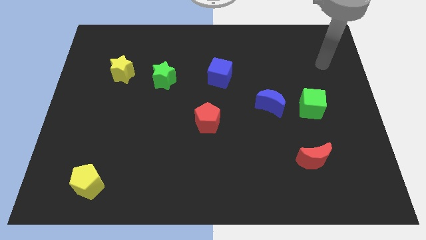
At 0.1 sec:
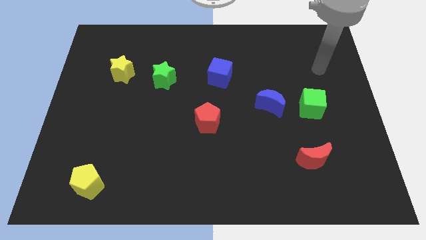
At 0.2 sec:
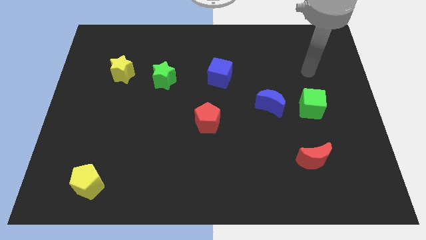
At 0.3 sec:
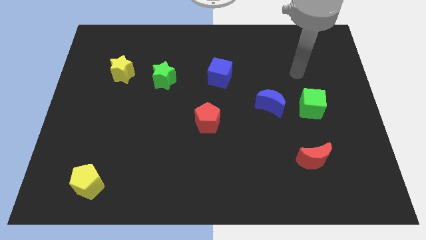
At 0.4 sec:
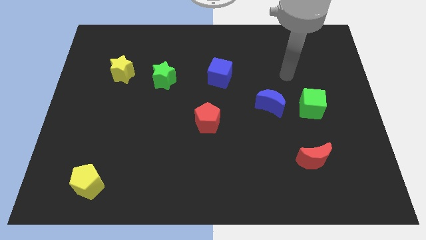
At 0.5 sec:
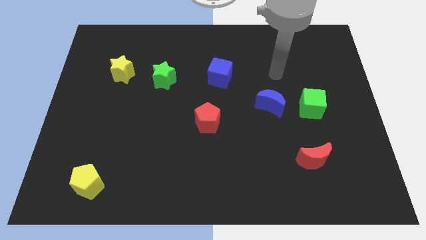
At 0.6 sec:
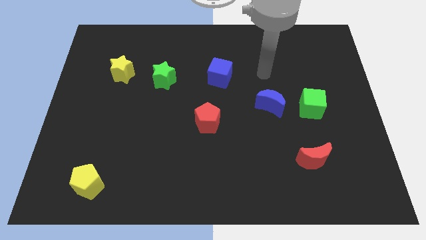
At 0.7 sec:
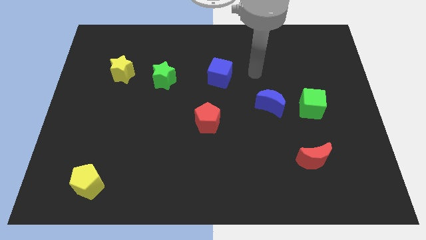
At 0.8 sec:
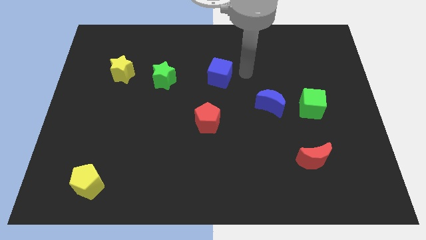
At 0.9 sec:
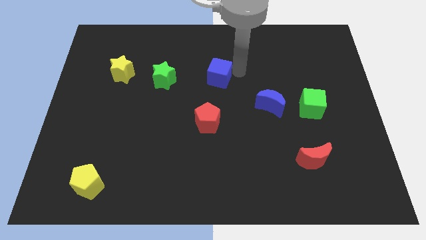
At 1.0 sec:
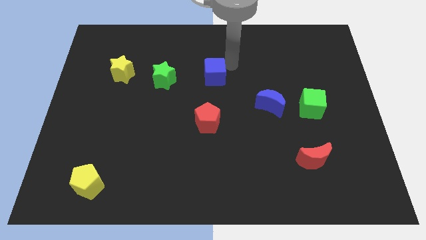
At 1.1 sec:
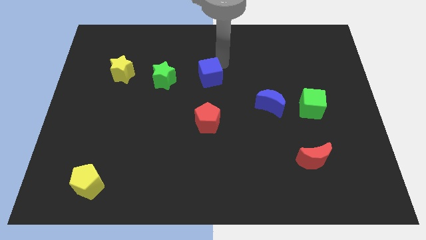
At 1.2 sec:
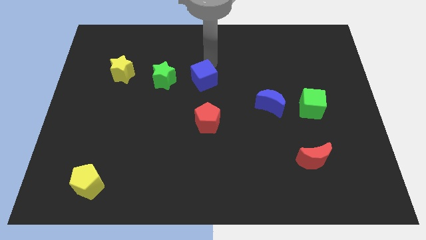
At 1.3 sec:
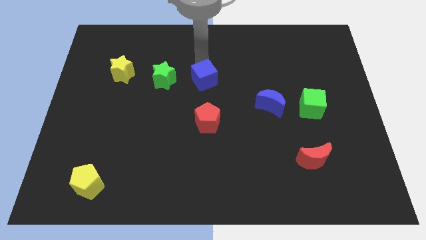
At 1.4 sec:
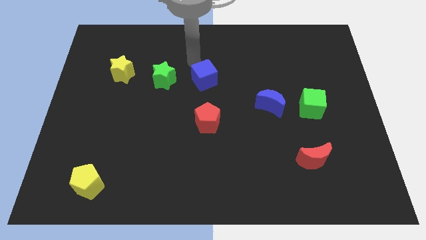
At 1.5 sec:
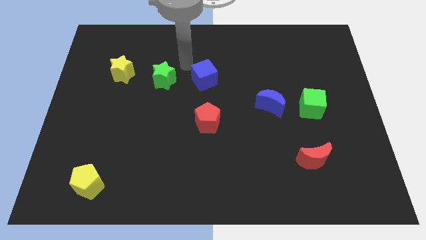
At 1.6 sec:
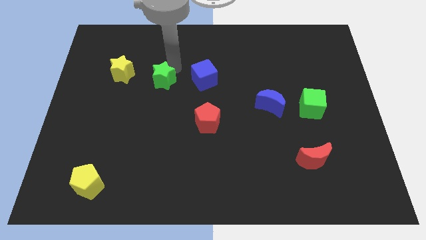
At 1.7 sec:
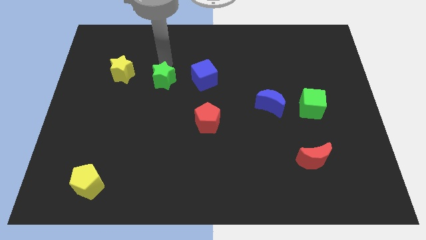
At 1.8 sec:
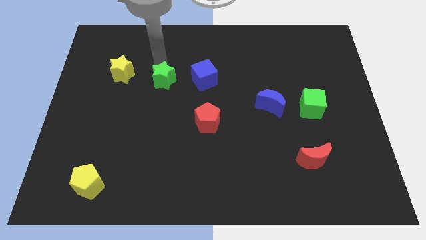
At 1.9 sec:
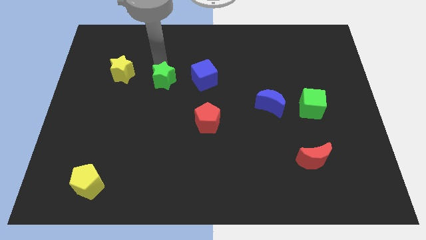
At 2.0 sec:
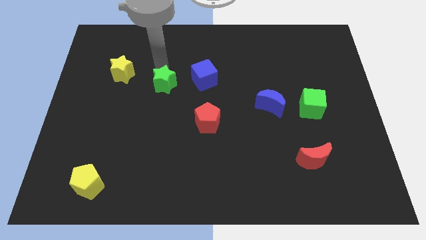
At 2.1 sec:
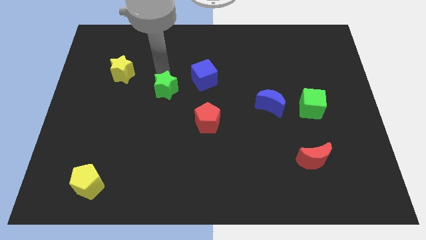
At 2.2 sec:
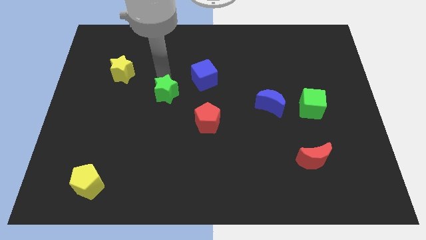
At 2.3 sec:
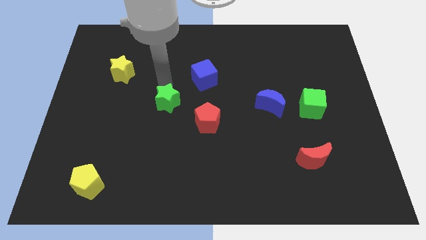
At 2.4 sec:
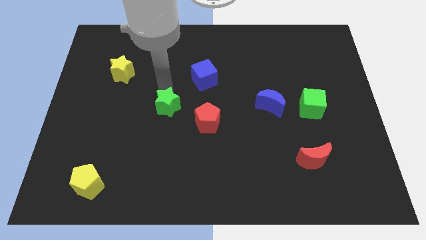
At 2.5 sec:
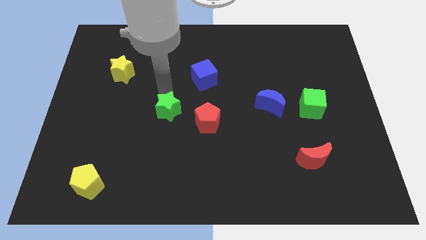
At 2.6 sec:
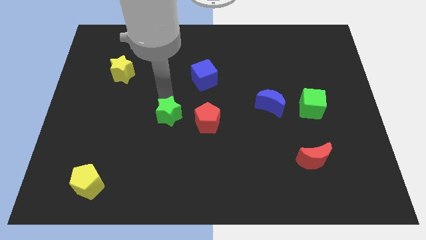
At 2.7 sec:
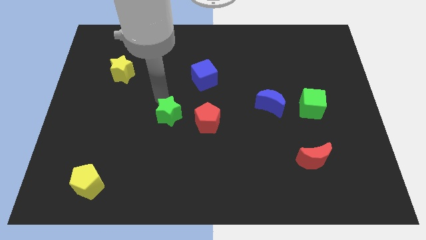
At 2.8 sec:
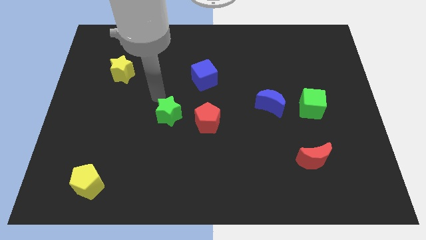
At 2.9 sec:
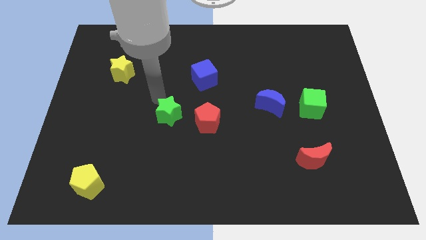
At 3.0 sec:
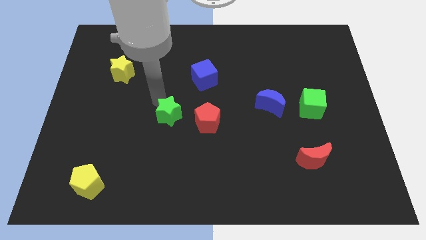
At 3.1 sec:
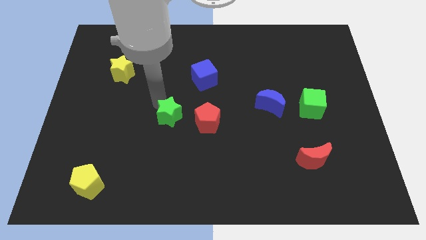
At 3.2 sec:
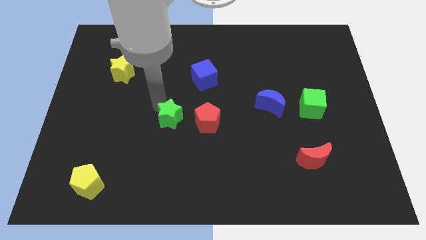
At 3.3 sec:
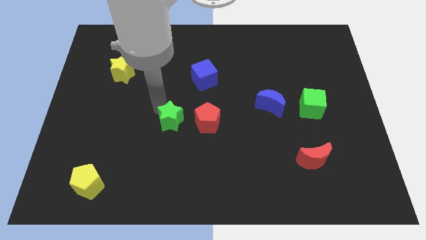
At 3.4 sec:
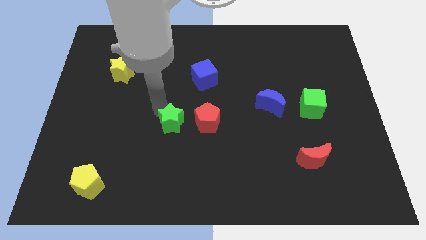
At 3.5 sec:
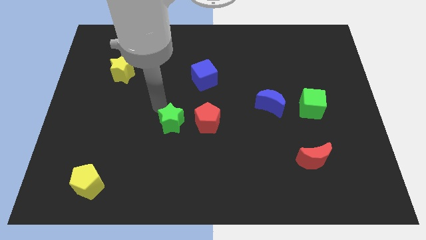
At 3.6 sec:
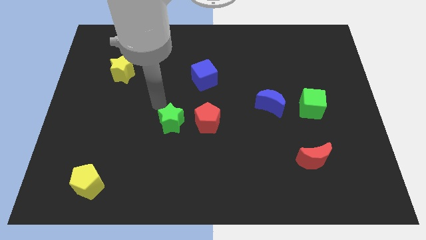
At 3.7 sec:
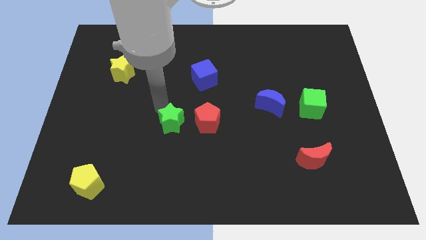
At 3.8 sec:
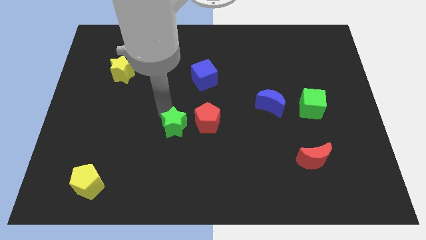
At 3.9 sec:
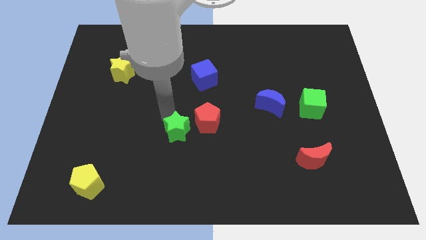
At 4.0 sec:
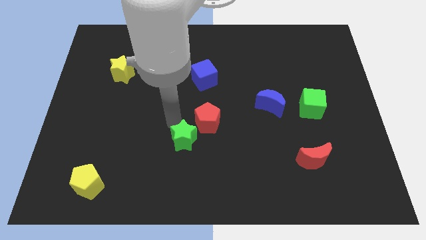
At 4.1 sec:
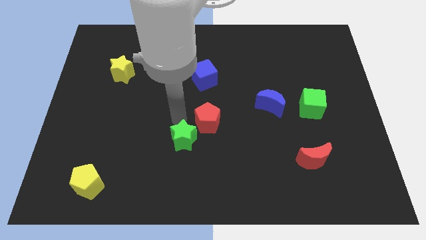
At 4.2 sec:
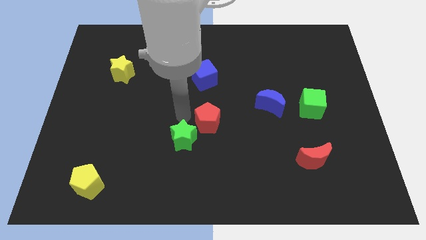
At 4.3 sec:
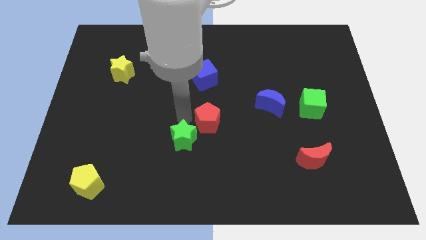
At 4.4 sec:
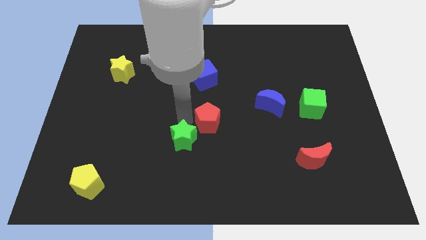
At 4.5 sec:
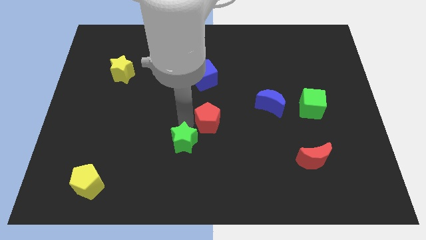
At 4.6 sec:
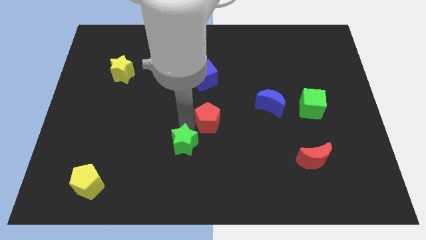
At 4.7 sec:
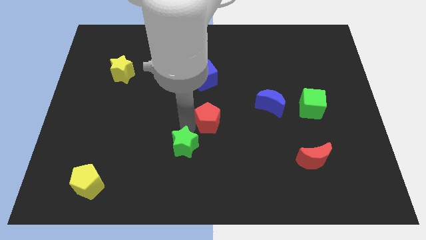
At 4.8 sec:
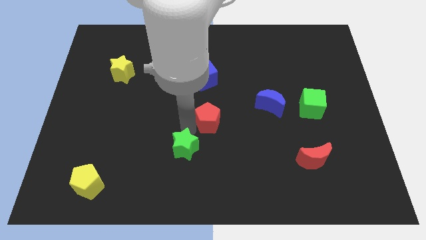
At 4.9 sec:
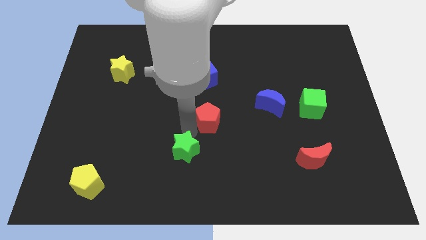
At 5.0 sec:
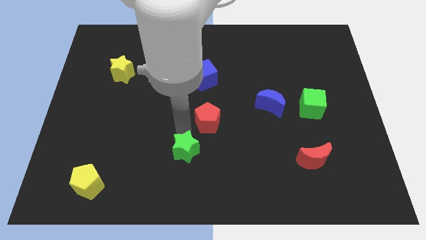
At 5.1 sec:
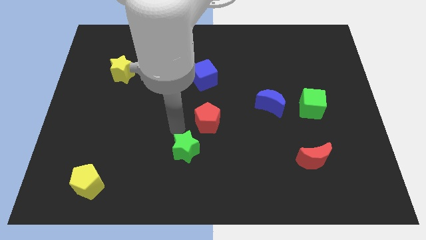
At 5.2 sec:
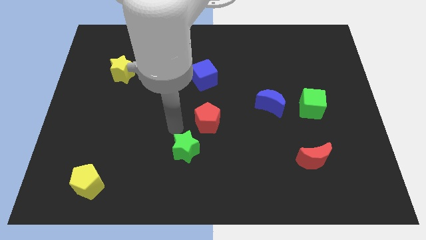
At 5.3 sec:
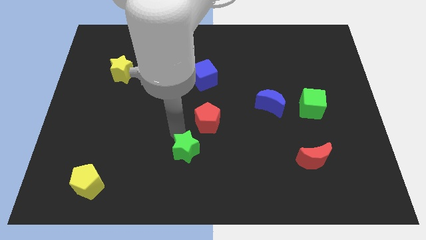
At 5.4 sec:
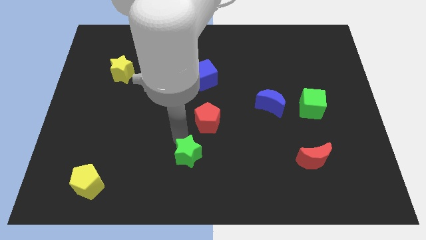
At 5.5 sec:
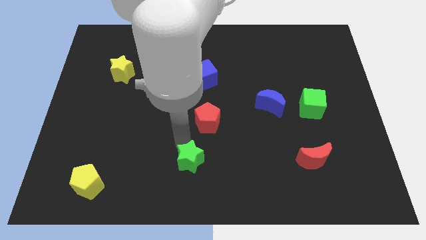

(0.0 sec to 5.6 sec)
put the green star to the bottom

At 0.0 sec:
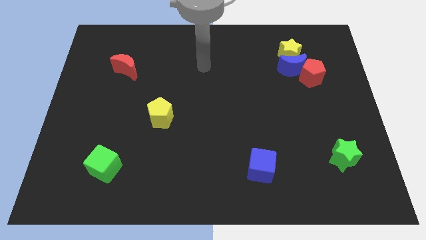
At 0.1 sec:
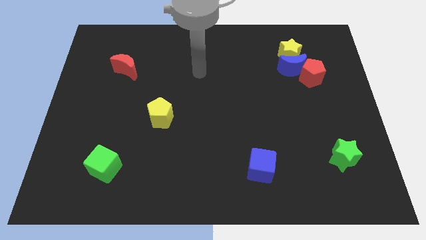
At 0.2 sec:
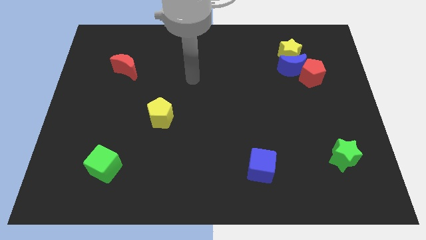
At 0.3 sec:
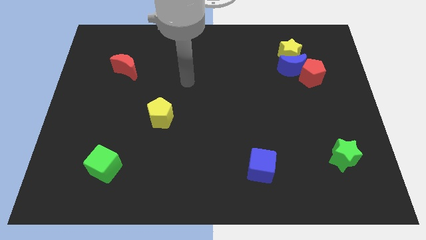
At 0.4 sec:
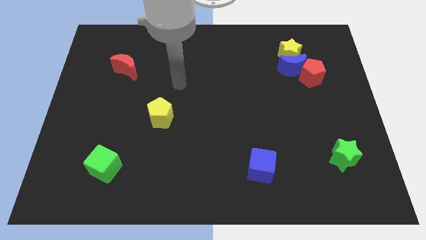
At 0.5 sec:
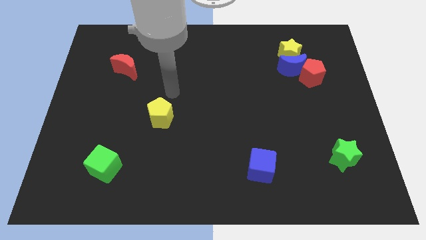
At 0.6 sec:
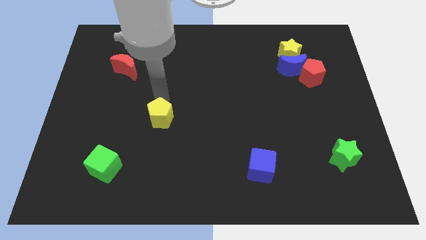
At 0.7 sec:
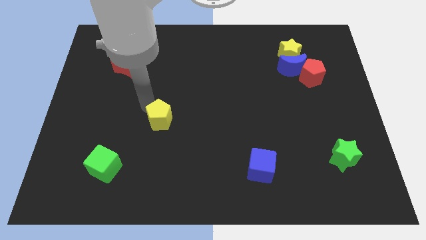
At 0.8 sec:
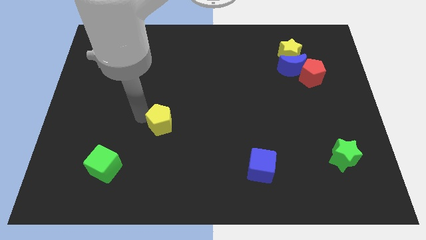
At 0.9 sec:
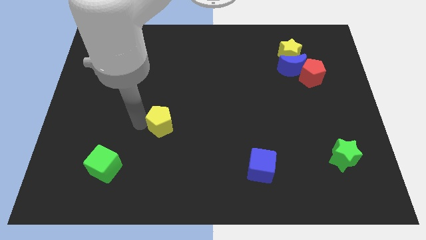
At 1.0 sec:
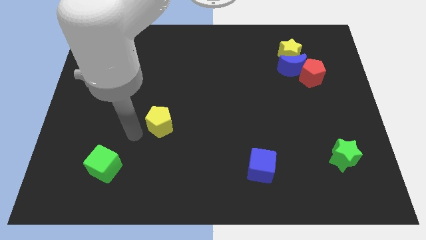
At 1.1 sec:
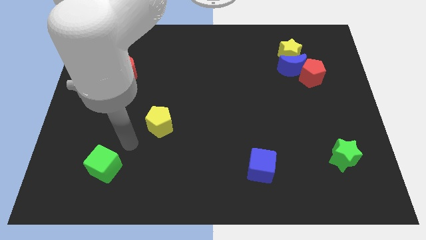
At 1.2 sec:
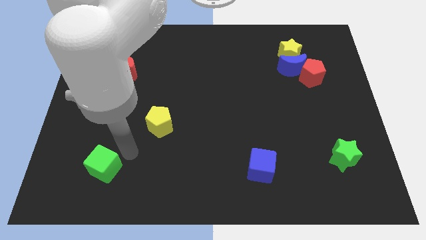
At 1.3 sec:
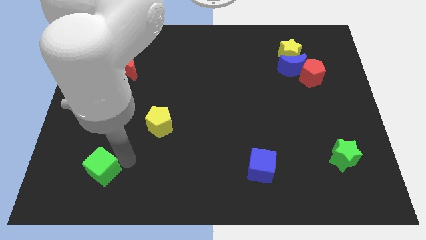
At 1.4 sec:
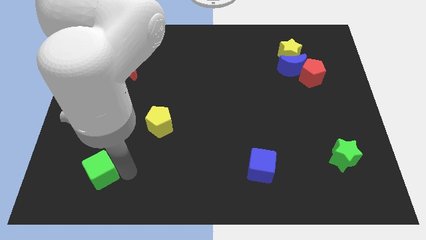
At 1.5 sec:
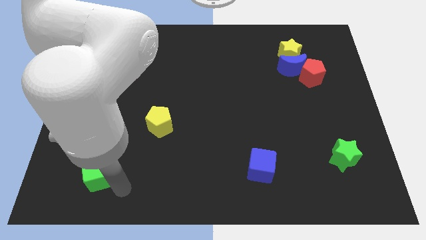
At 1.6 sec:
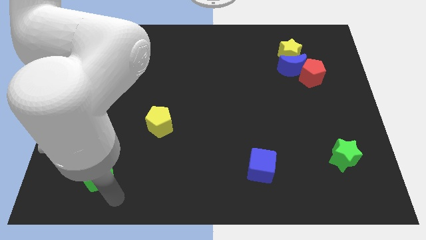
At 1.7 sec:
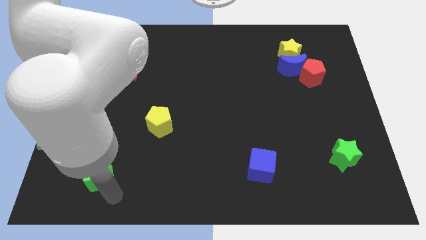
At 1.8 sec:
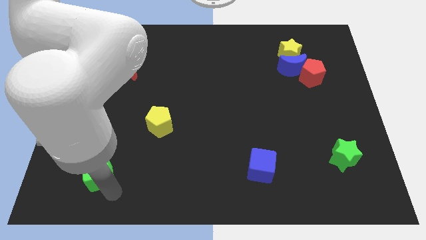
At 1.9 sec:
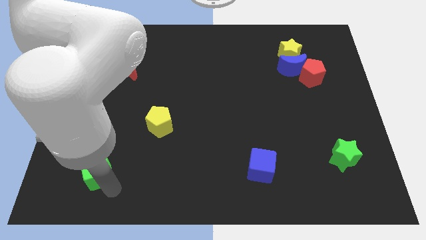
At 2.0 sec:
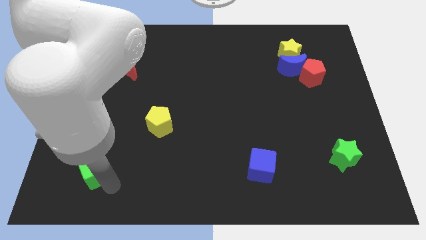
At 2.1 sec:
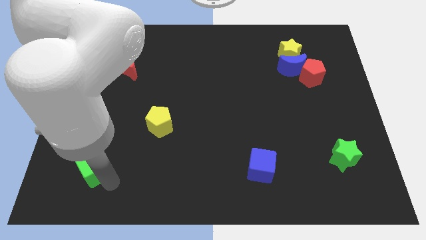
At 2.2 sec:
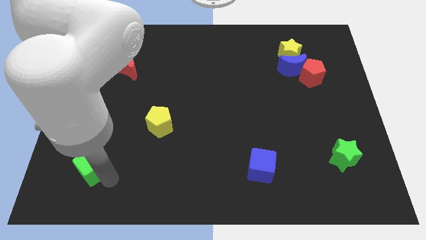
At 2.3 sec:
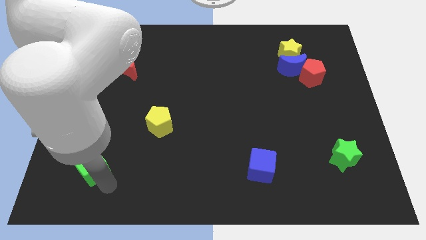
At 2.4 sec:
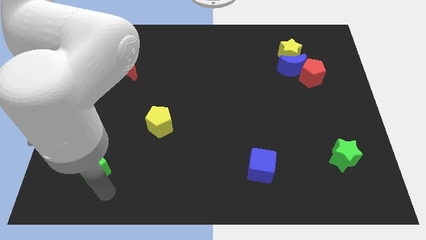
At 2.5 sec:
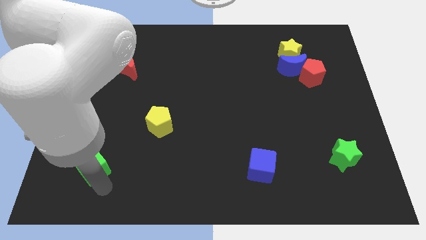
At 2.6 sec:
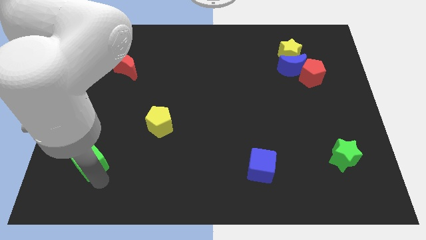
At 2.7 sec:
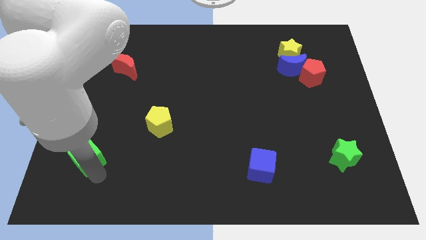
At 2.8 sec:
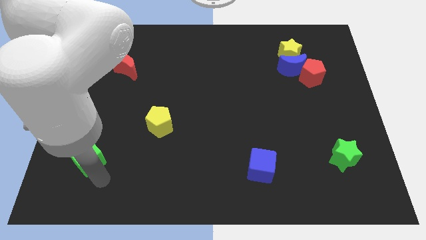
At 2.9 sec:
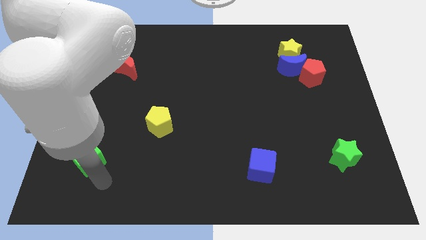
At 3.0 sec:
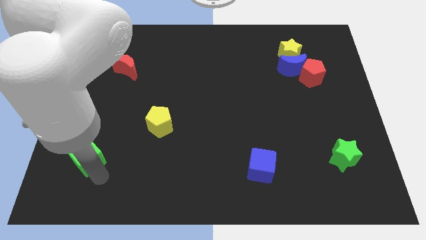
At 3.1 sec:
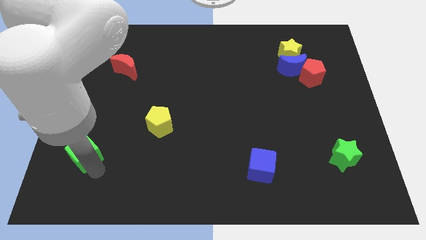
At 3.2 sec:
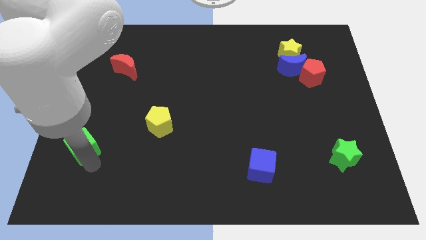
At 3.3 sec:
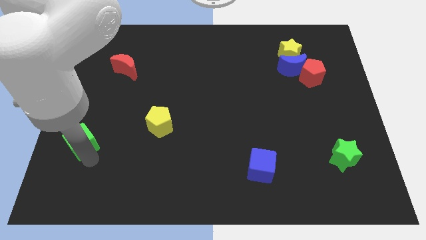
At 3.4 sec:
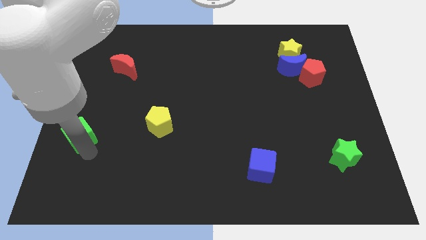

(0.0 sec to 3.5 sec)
slide the green cube to the left side
